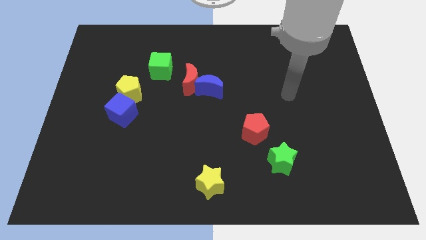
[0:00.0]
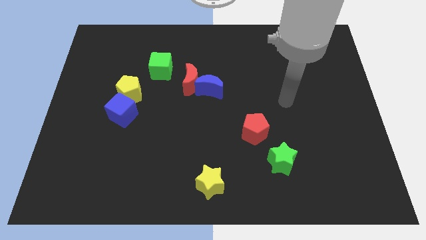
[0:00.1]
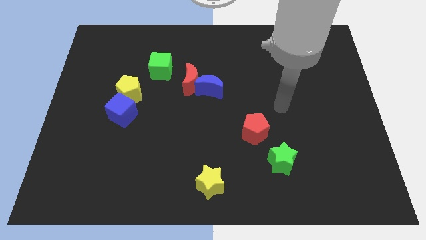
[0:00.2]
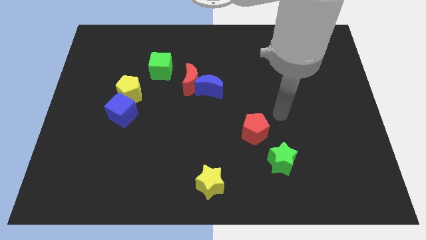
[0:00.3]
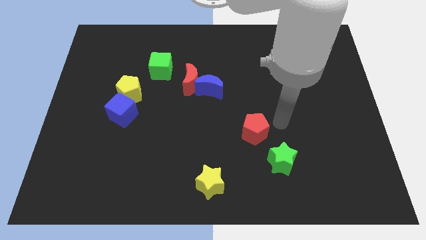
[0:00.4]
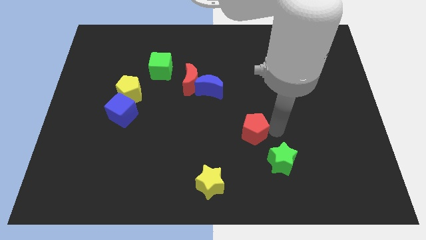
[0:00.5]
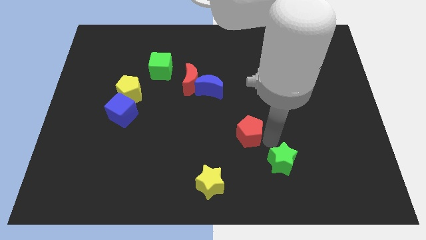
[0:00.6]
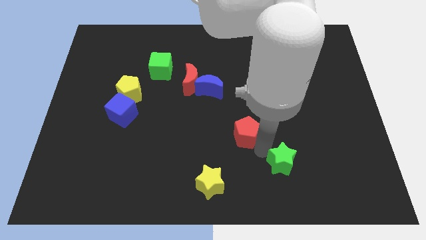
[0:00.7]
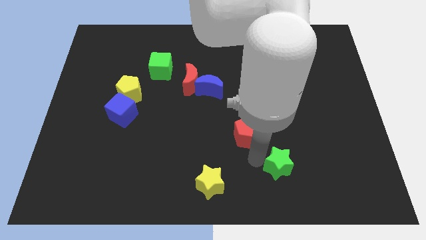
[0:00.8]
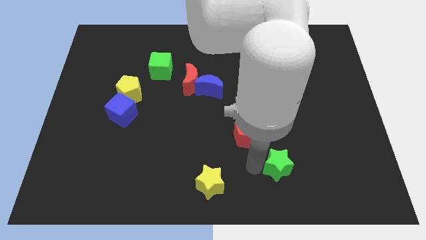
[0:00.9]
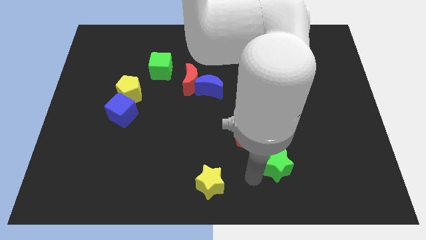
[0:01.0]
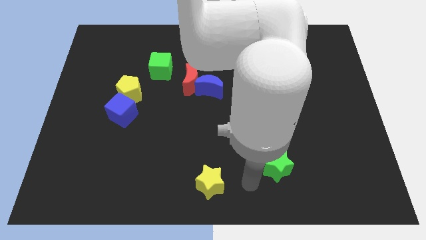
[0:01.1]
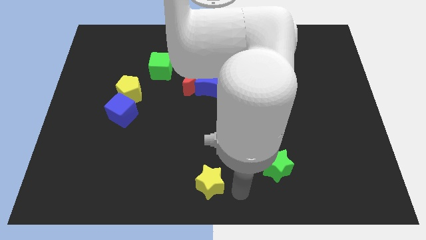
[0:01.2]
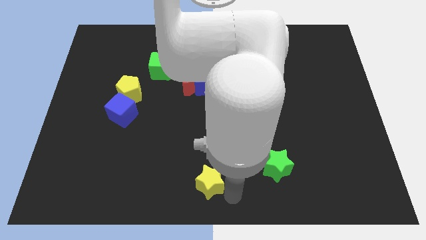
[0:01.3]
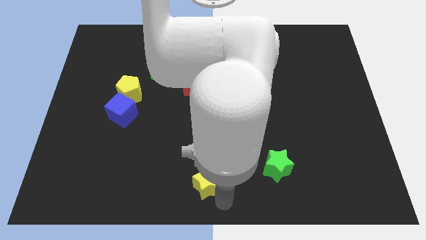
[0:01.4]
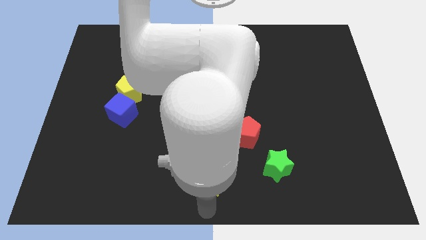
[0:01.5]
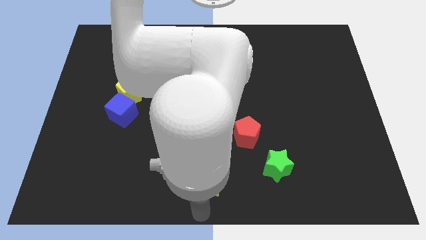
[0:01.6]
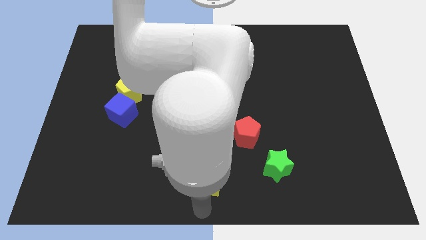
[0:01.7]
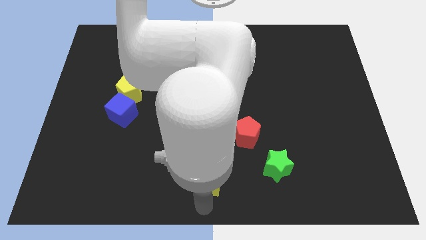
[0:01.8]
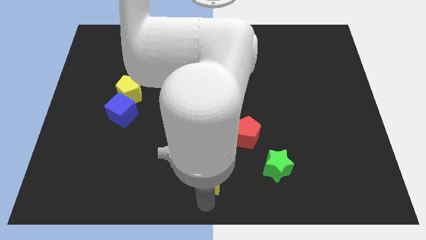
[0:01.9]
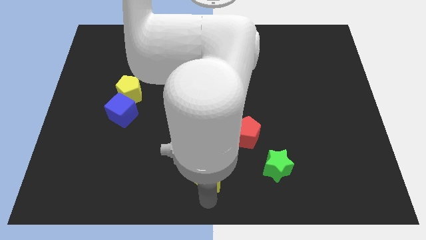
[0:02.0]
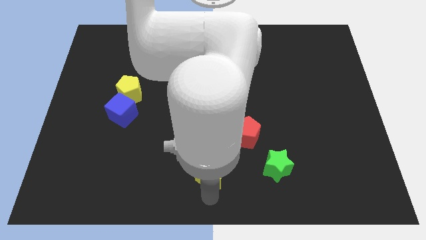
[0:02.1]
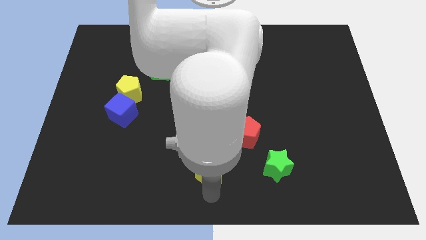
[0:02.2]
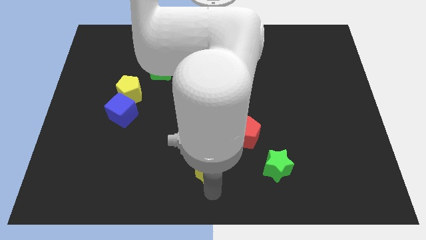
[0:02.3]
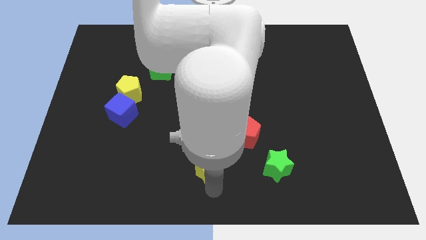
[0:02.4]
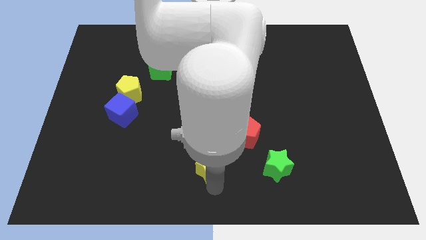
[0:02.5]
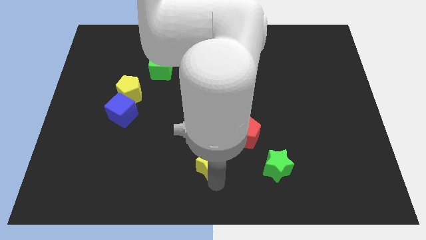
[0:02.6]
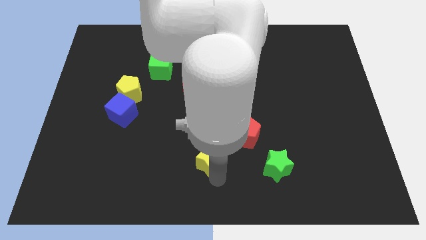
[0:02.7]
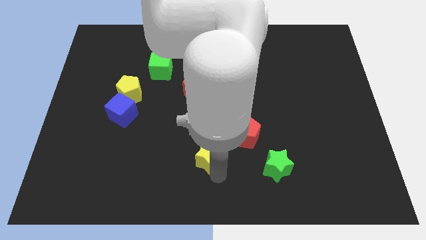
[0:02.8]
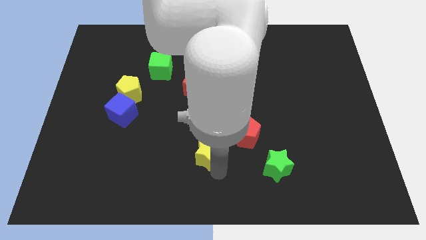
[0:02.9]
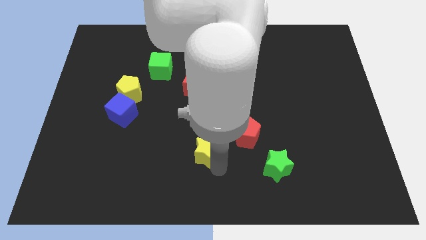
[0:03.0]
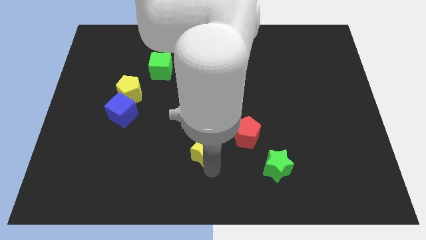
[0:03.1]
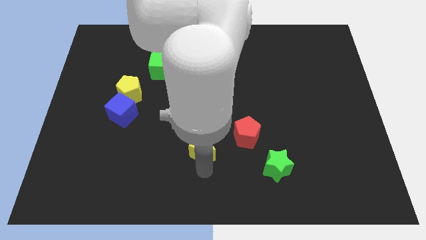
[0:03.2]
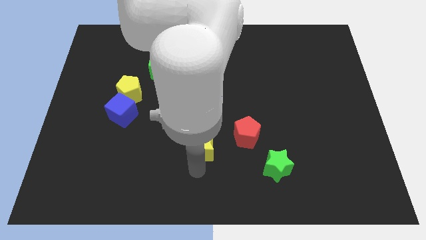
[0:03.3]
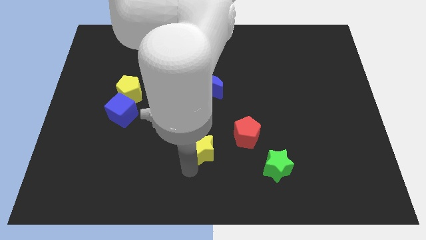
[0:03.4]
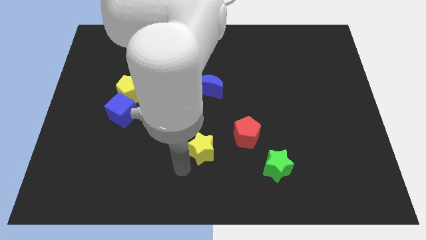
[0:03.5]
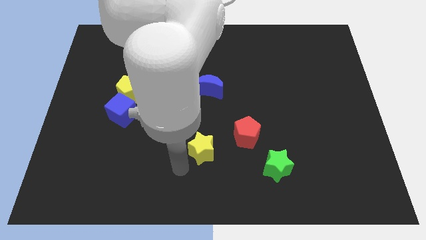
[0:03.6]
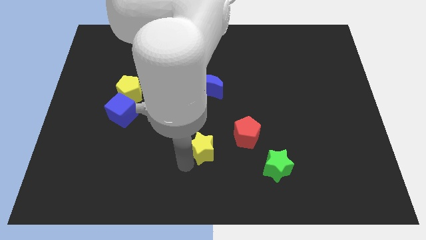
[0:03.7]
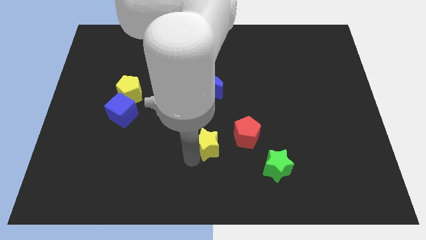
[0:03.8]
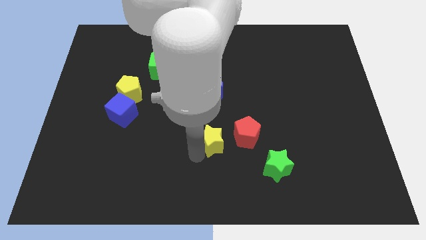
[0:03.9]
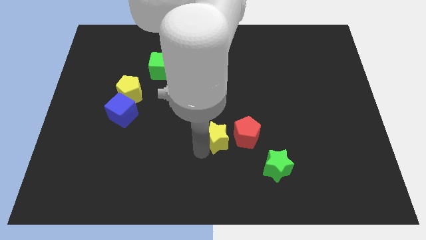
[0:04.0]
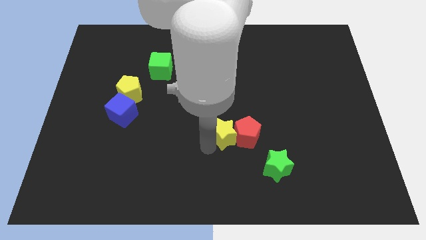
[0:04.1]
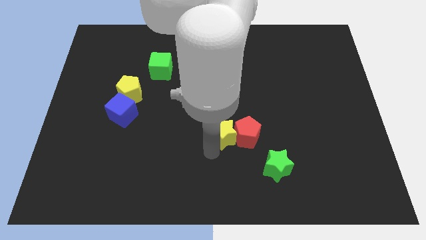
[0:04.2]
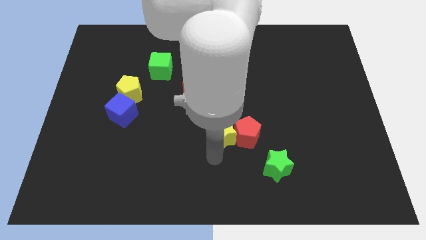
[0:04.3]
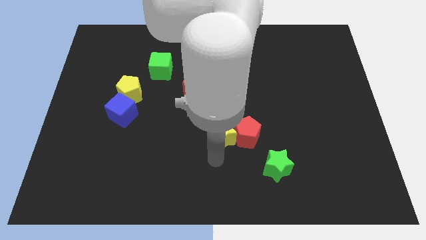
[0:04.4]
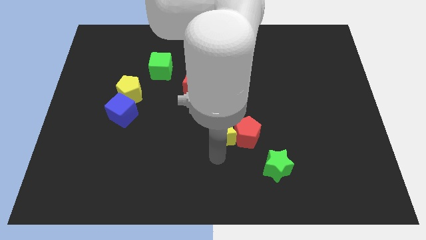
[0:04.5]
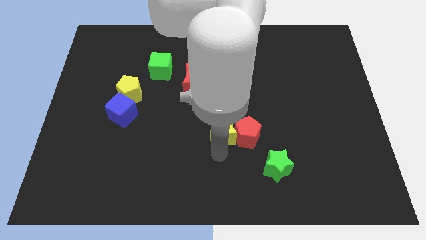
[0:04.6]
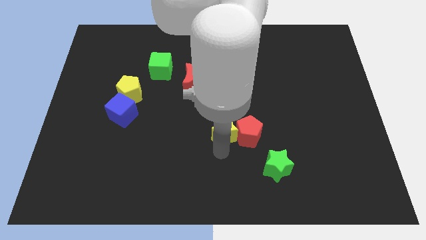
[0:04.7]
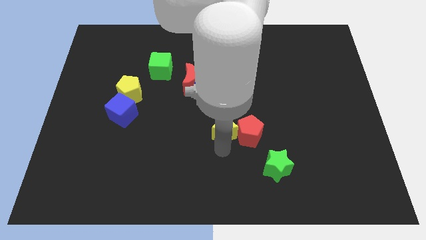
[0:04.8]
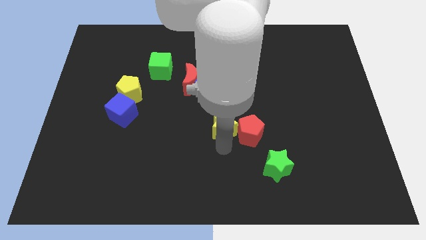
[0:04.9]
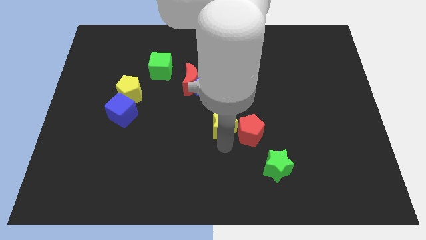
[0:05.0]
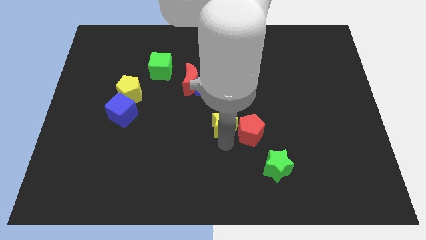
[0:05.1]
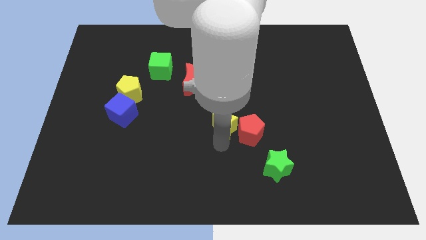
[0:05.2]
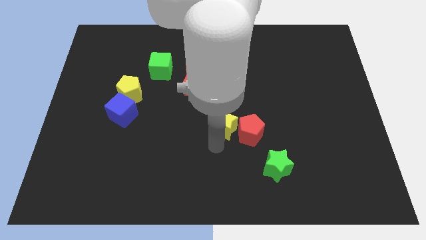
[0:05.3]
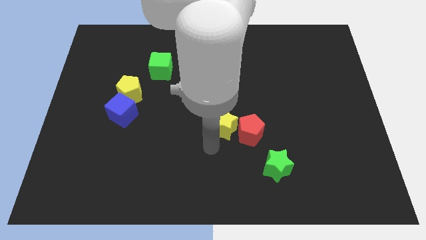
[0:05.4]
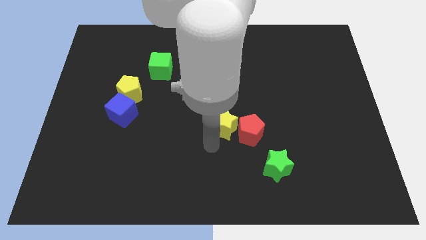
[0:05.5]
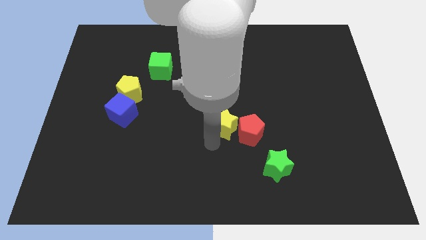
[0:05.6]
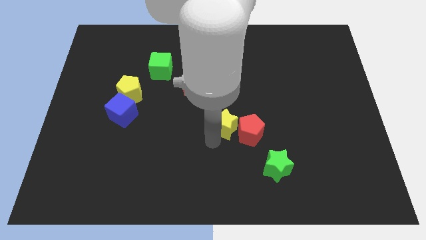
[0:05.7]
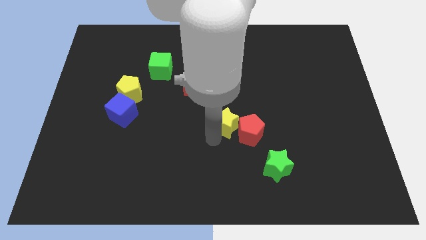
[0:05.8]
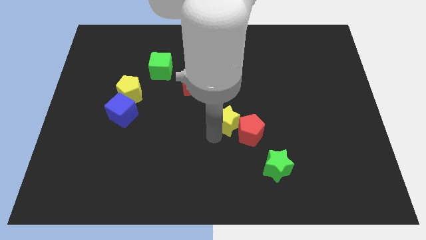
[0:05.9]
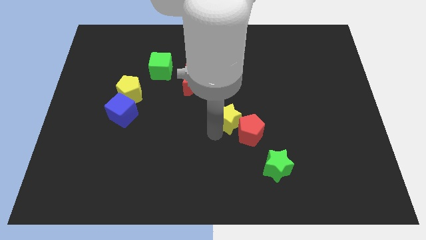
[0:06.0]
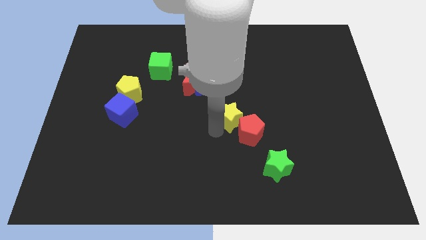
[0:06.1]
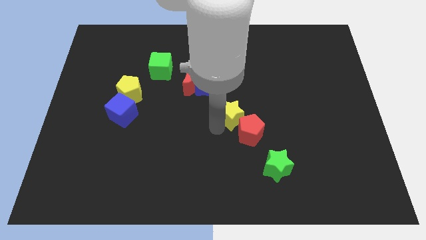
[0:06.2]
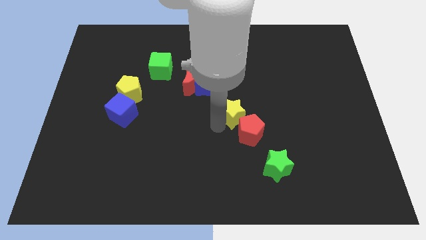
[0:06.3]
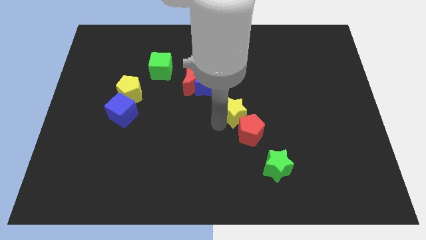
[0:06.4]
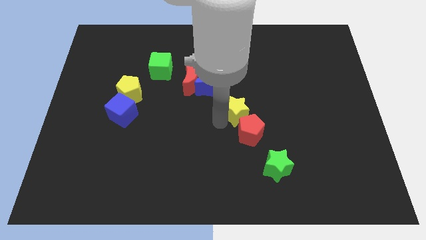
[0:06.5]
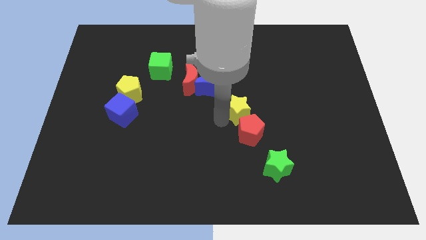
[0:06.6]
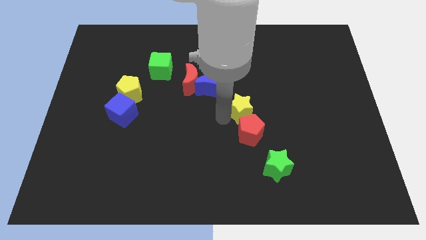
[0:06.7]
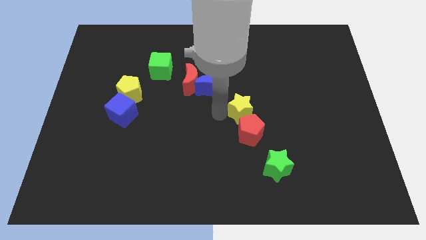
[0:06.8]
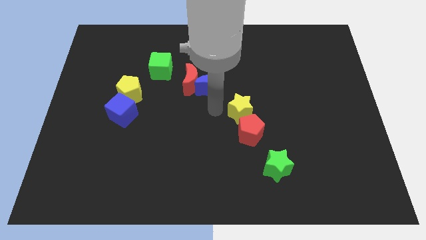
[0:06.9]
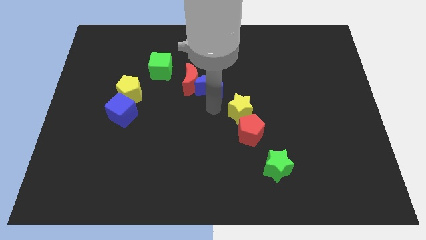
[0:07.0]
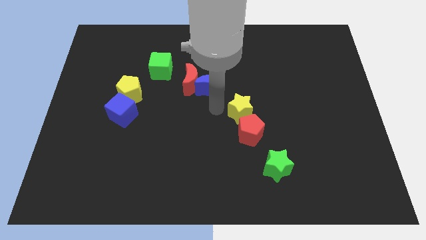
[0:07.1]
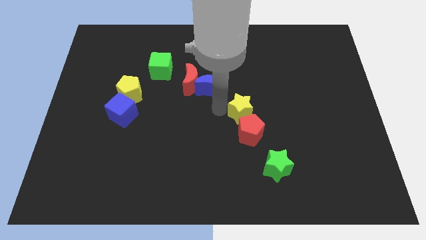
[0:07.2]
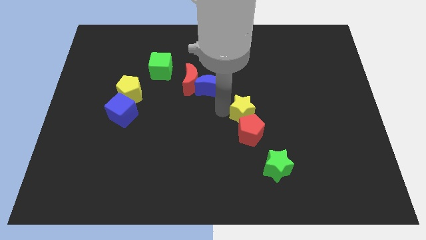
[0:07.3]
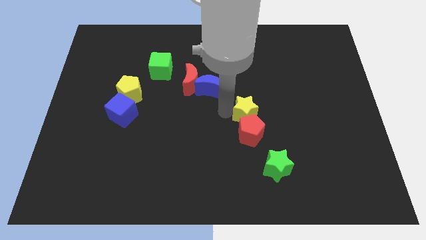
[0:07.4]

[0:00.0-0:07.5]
move the yellow star to the top right side of the red pentagon

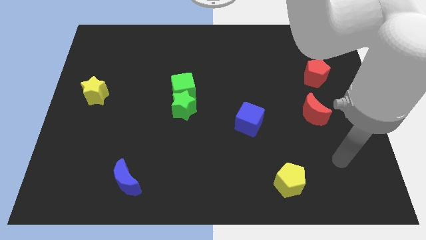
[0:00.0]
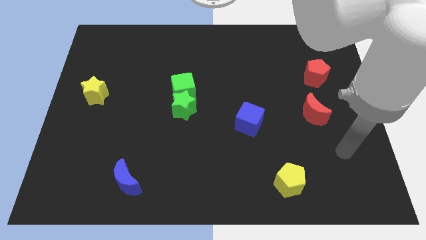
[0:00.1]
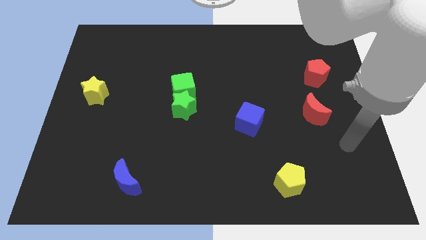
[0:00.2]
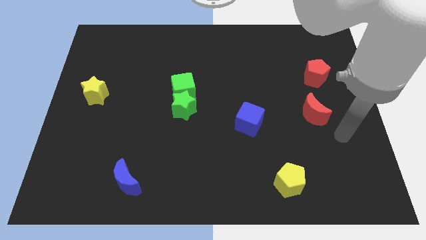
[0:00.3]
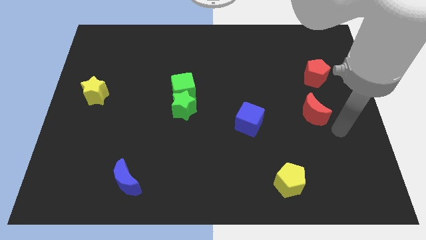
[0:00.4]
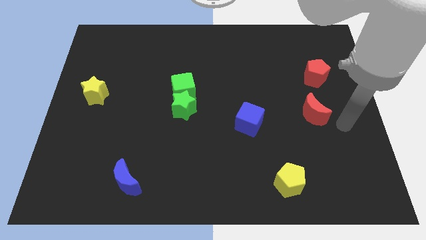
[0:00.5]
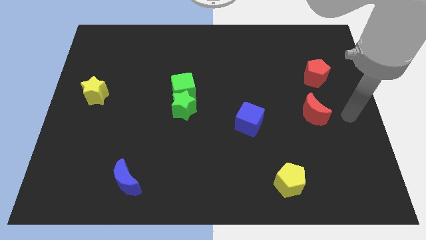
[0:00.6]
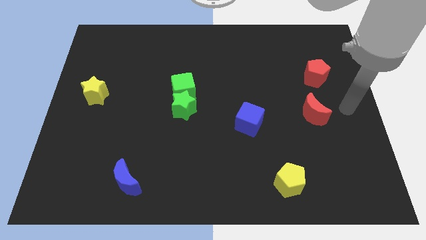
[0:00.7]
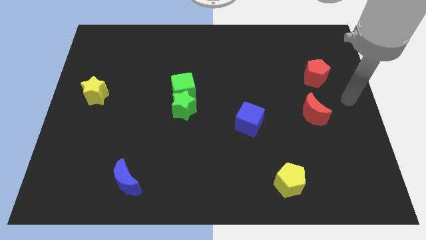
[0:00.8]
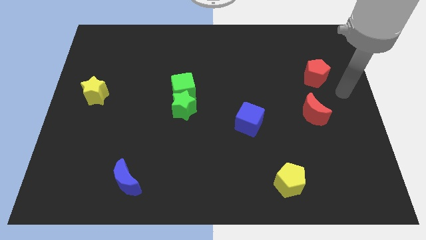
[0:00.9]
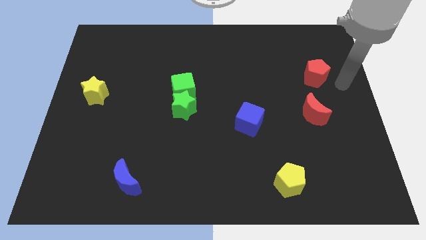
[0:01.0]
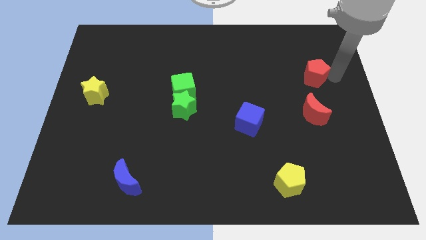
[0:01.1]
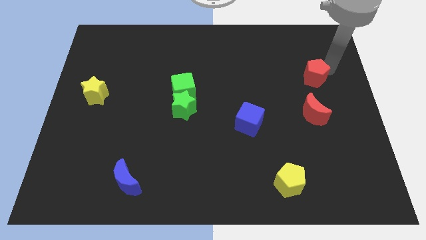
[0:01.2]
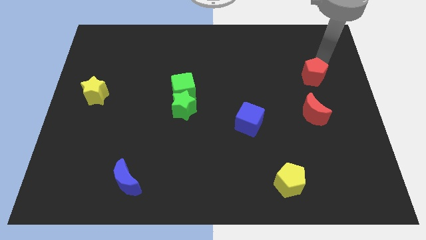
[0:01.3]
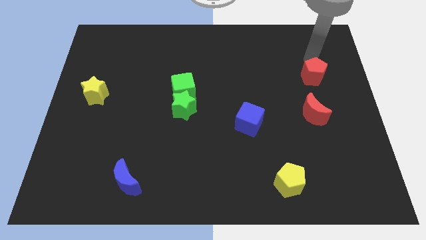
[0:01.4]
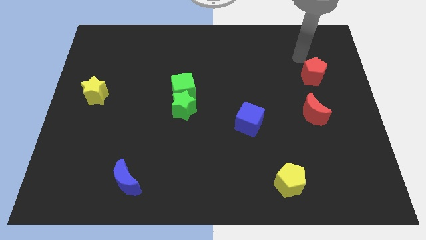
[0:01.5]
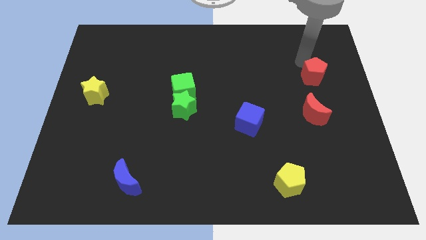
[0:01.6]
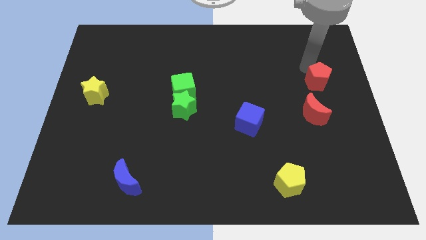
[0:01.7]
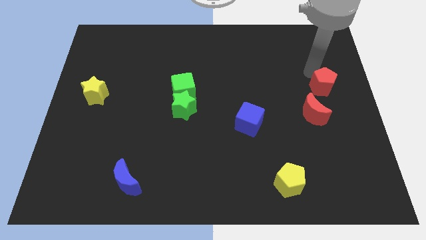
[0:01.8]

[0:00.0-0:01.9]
slide the red pentagon diagonally up and to the right of the red moon
